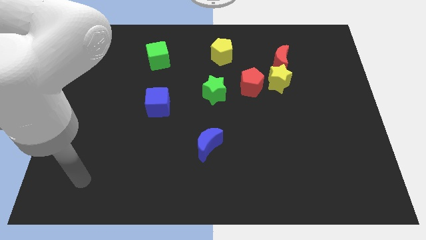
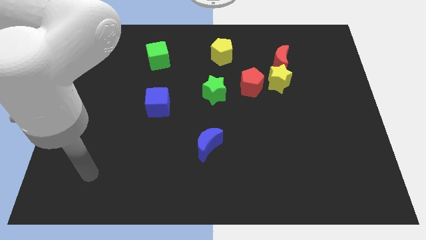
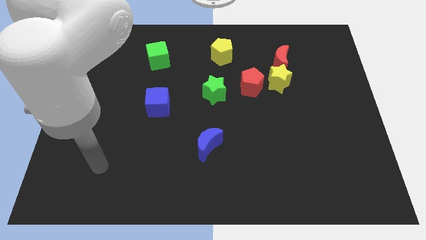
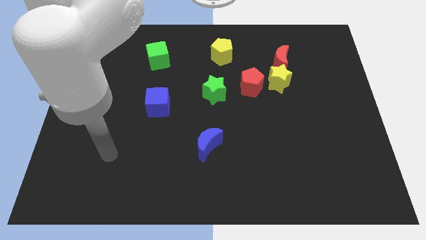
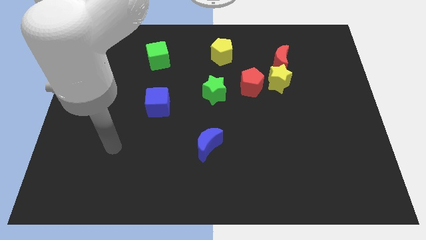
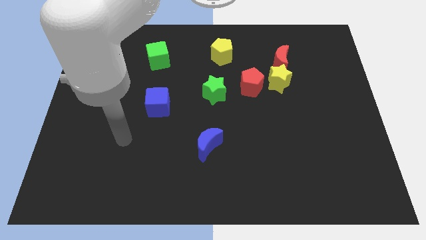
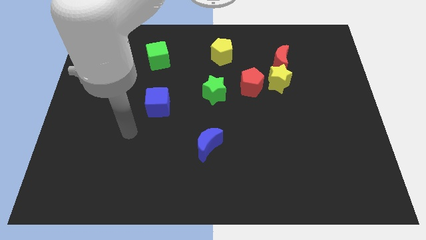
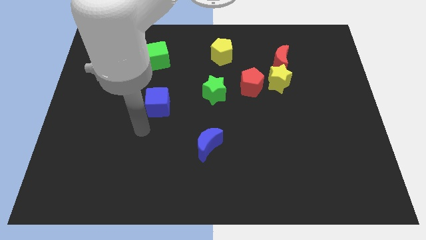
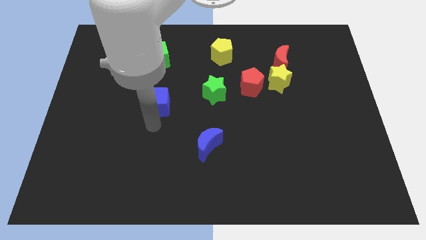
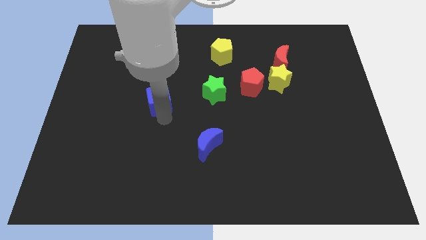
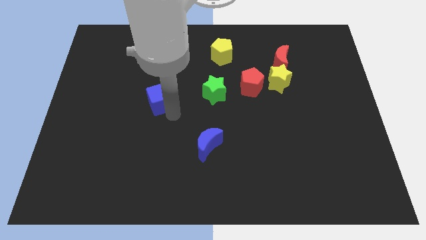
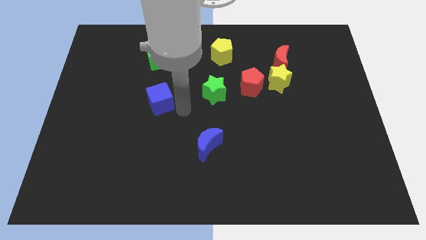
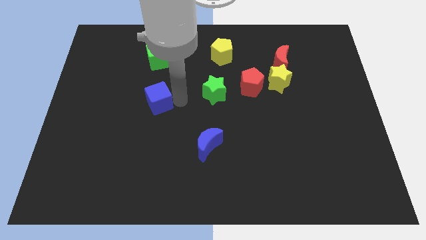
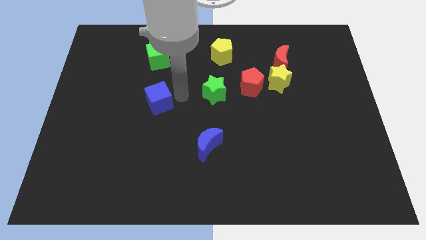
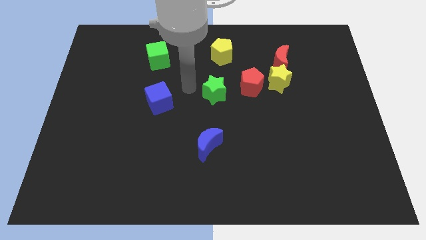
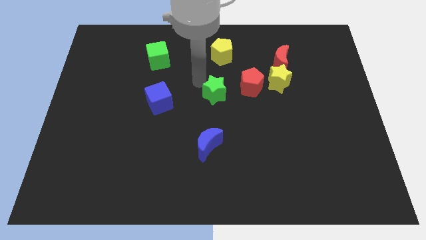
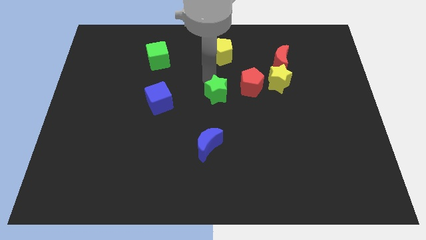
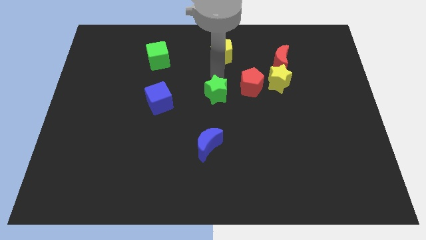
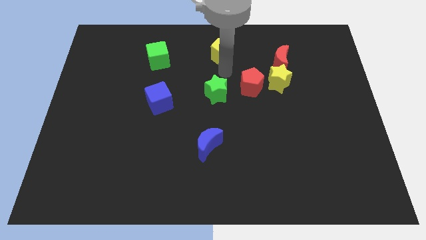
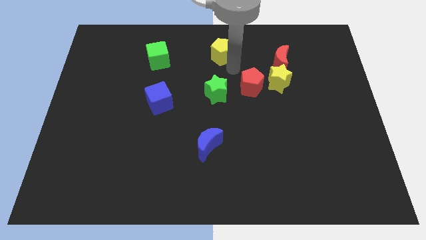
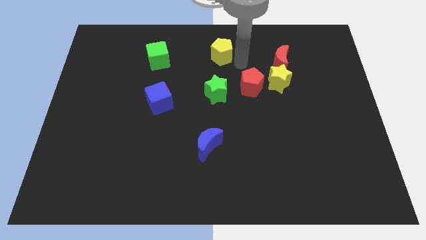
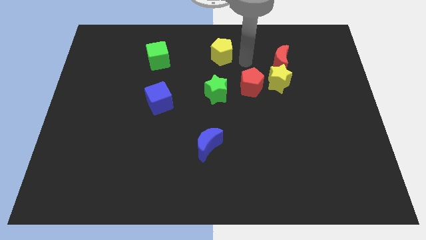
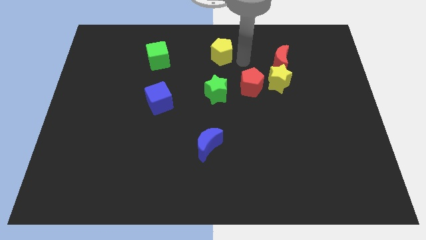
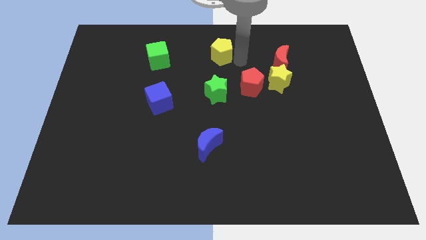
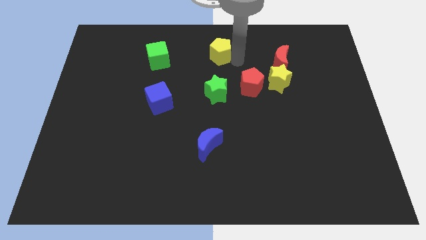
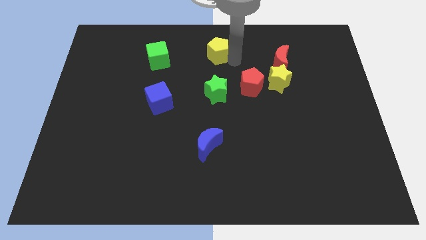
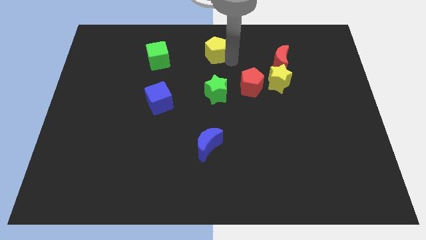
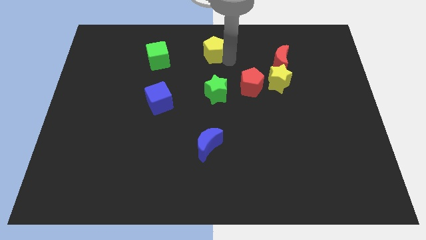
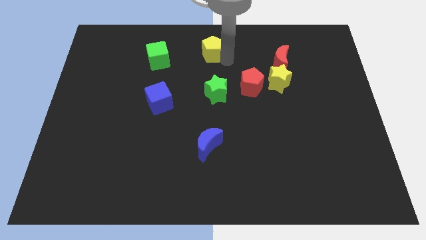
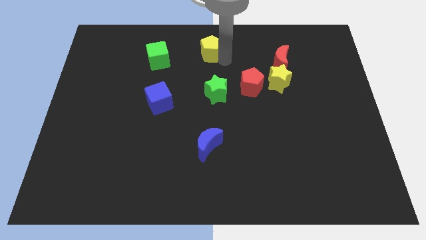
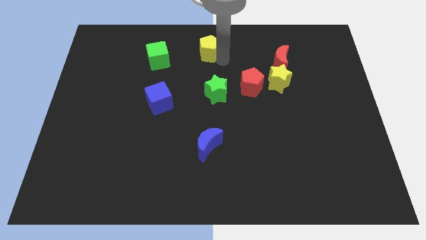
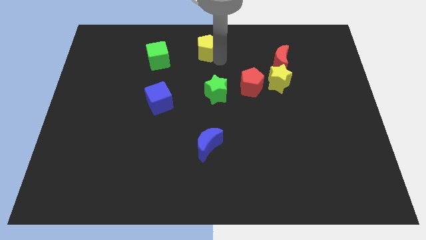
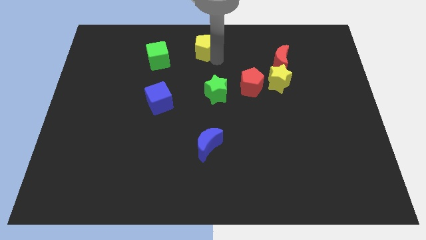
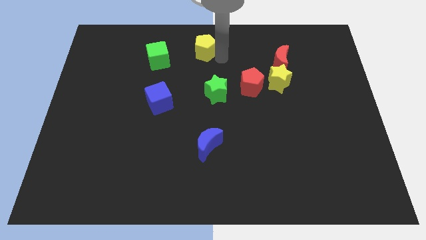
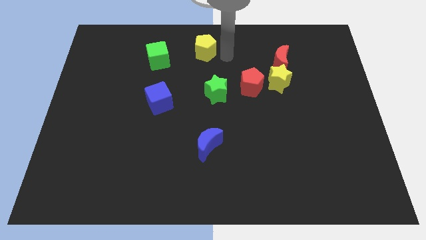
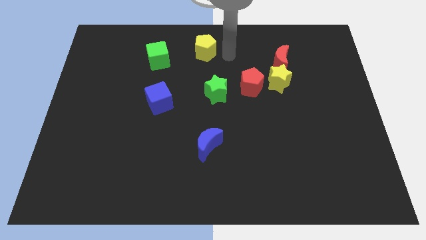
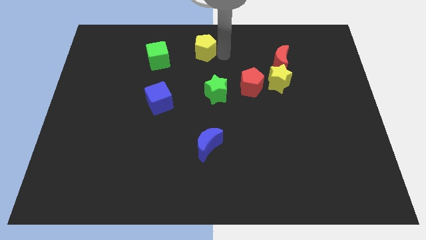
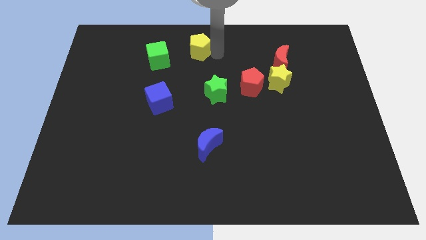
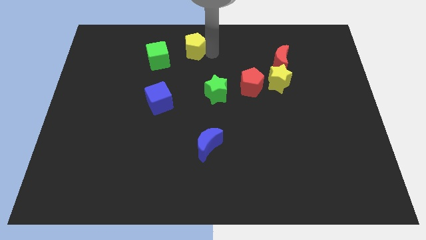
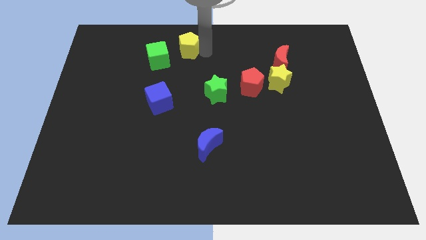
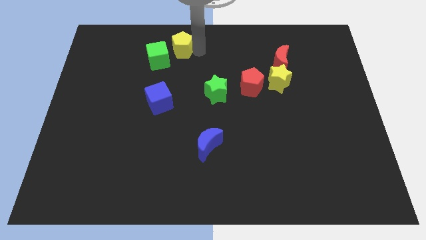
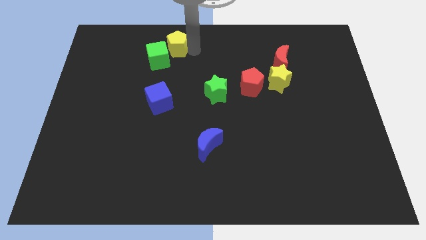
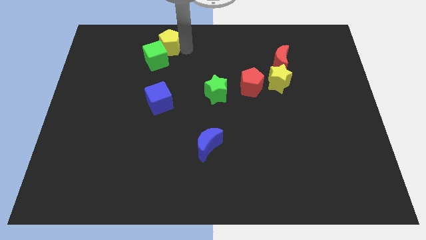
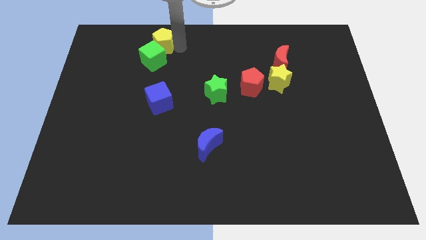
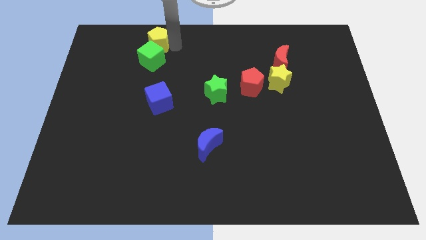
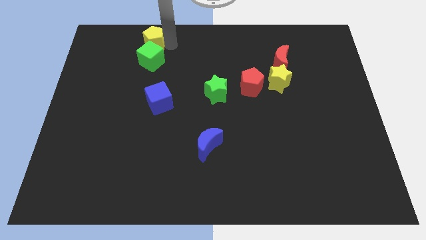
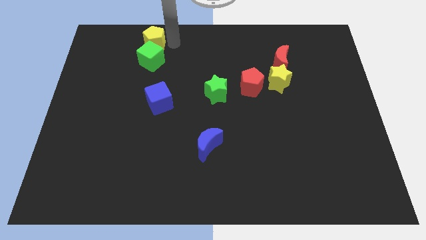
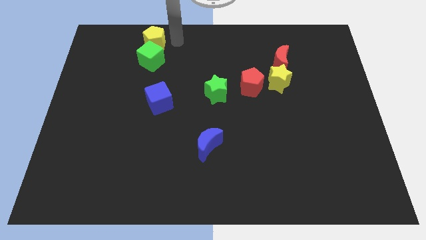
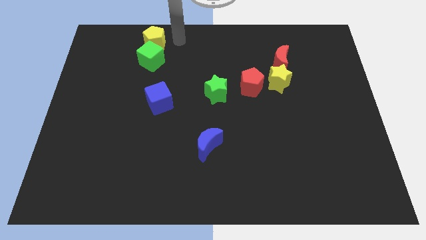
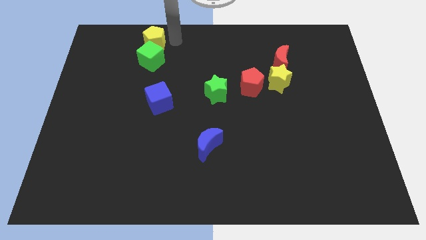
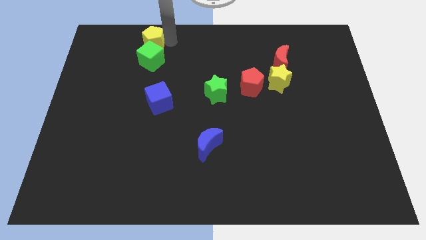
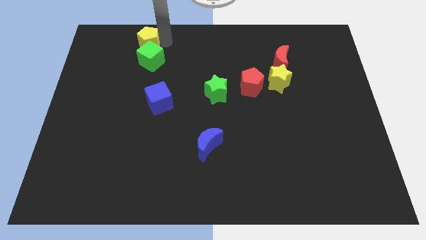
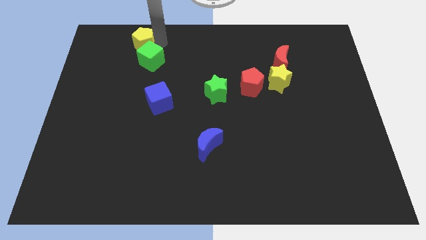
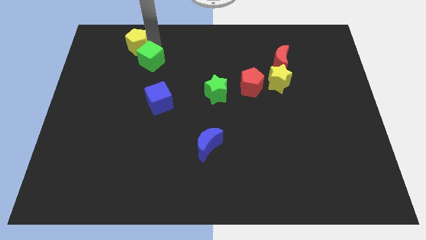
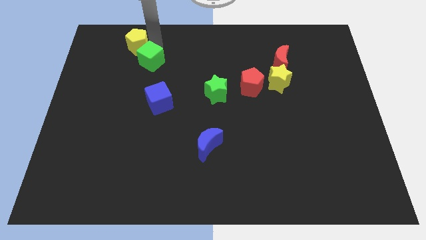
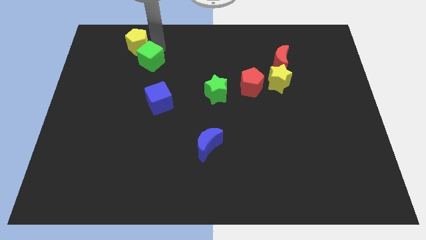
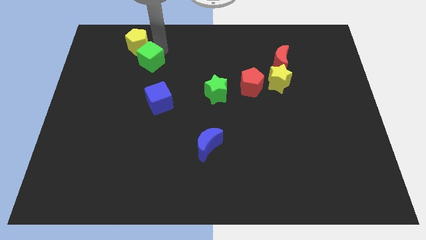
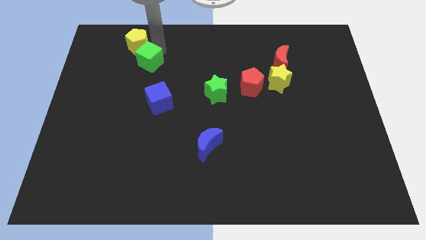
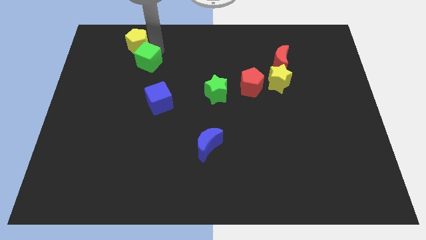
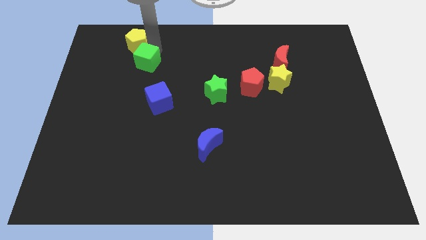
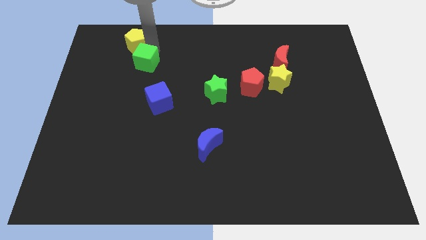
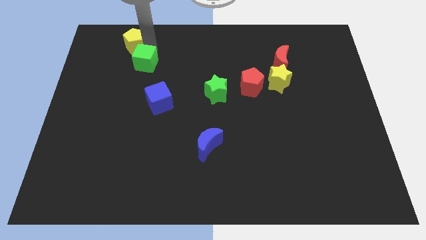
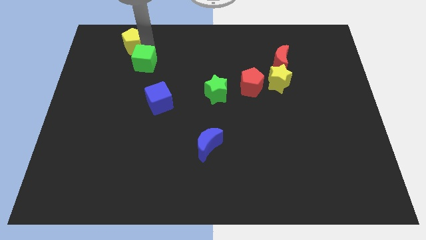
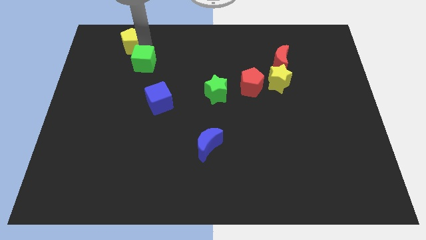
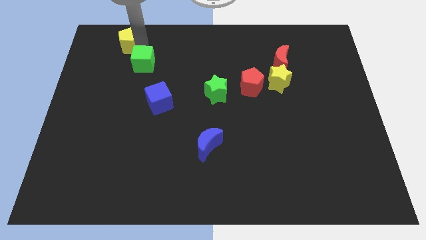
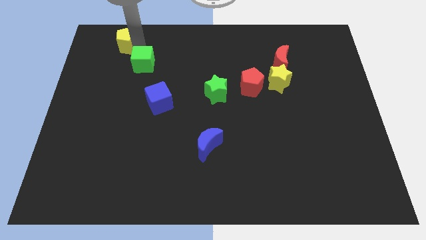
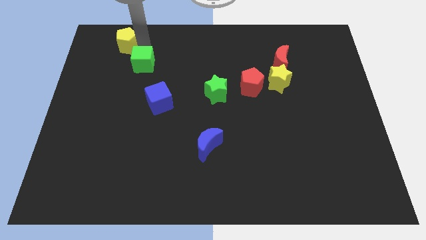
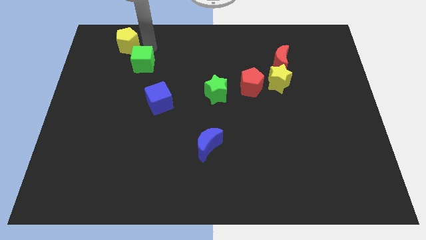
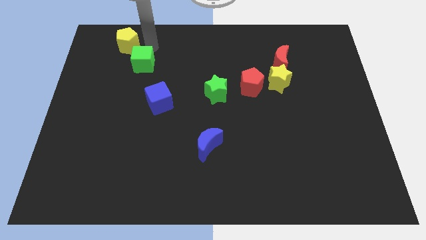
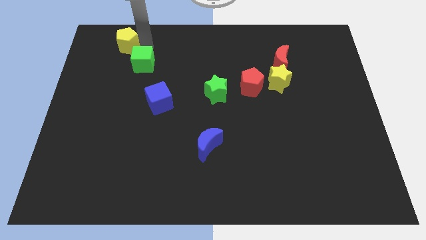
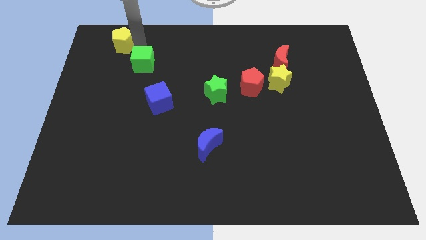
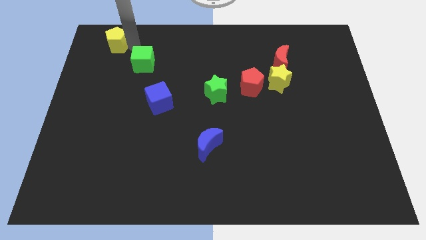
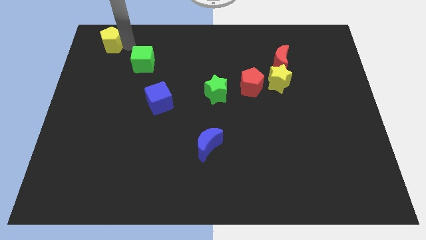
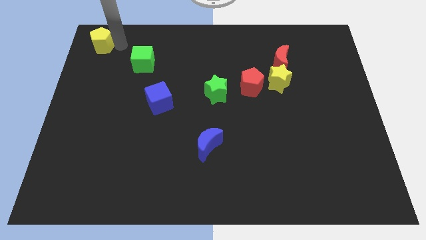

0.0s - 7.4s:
push the yellow pentagon to the upper left corner
